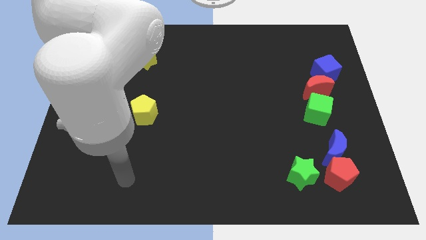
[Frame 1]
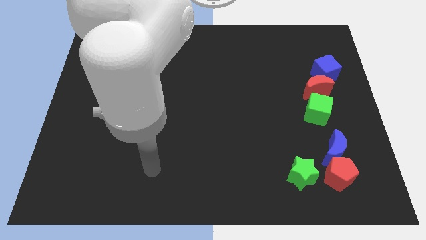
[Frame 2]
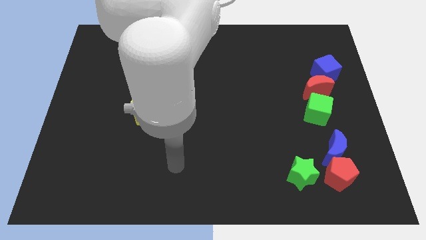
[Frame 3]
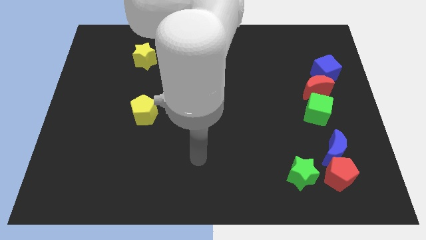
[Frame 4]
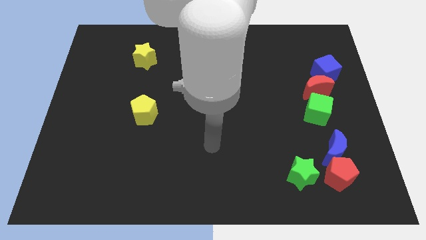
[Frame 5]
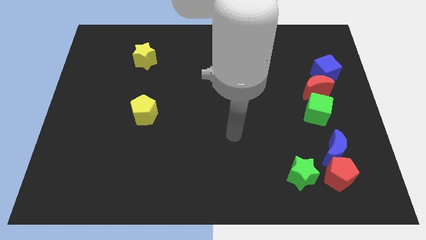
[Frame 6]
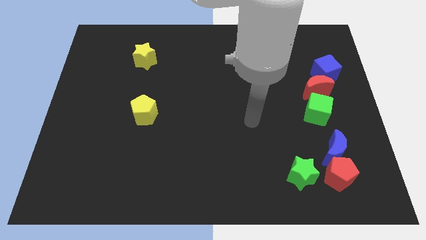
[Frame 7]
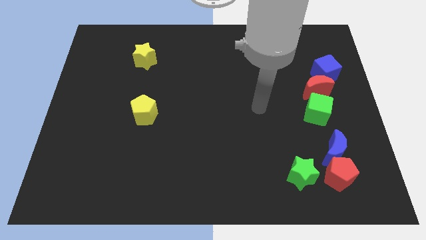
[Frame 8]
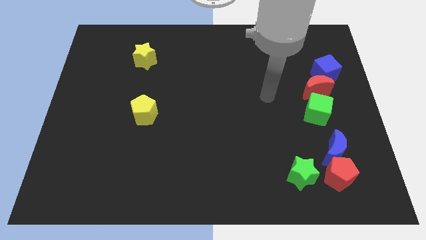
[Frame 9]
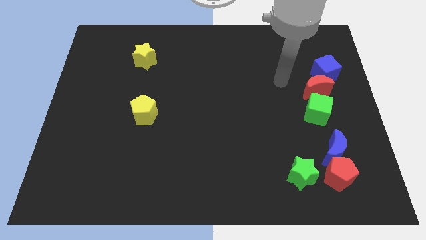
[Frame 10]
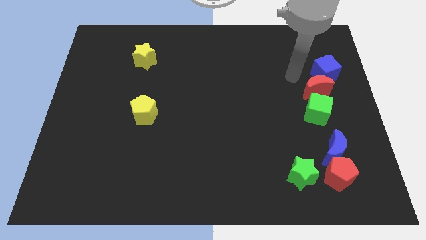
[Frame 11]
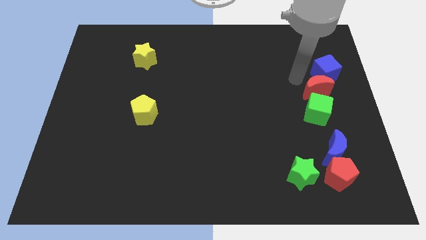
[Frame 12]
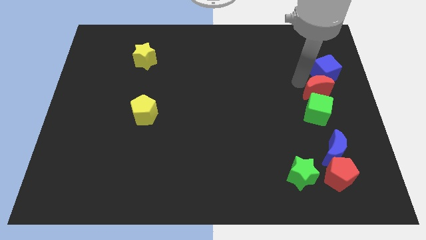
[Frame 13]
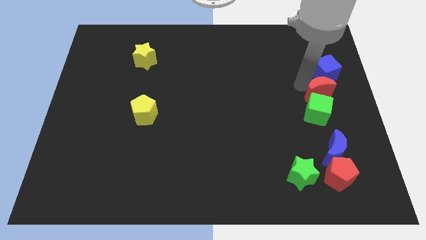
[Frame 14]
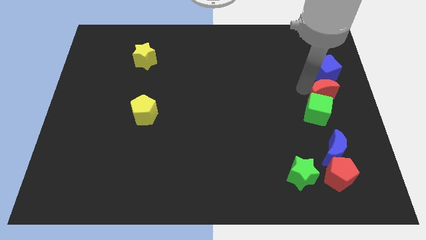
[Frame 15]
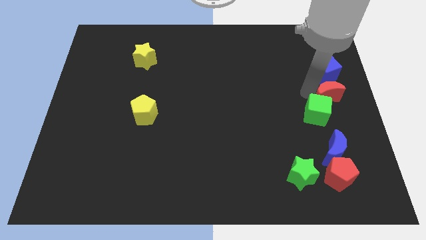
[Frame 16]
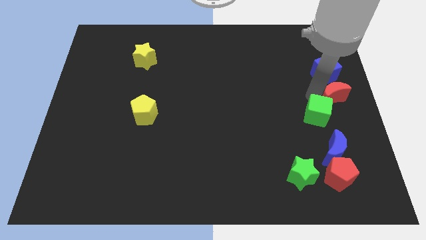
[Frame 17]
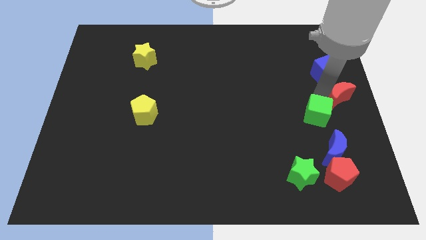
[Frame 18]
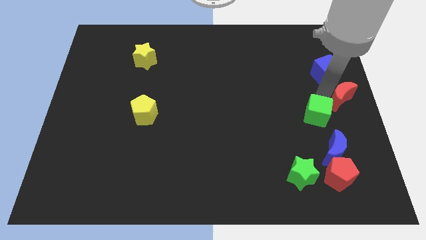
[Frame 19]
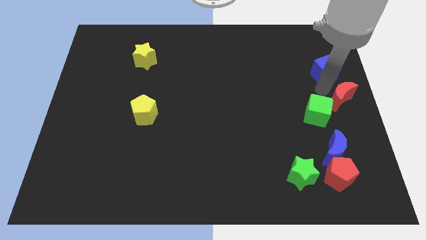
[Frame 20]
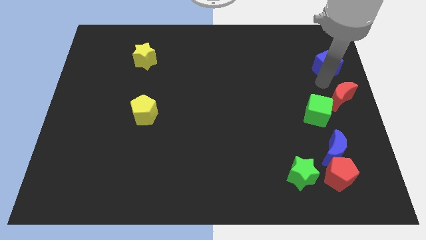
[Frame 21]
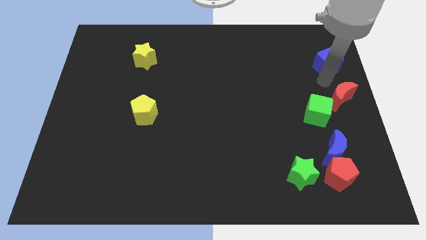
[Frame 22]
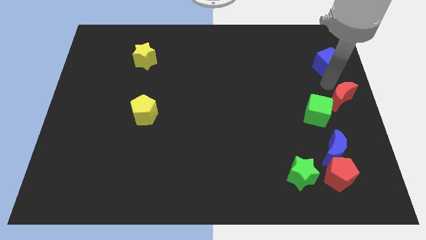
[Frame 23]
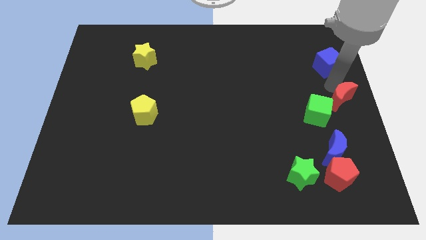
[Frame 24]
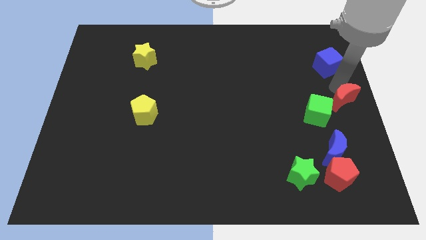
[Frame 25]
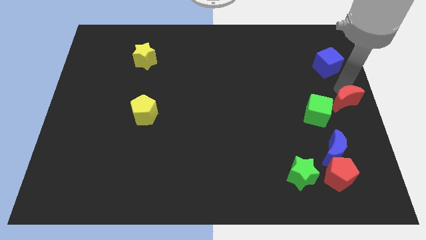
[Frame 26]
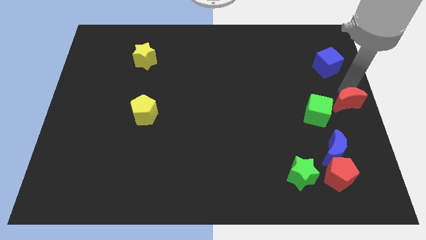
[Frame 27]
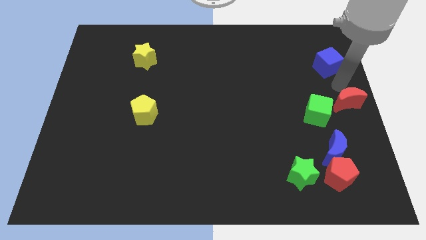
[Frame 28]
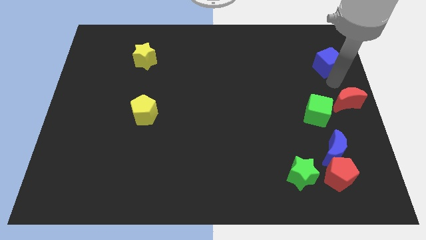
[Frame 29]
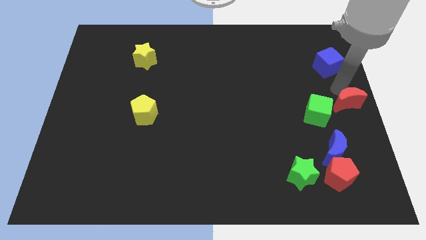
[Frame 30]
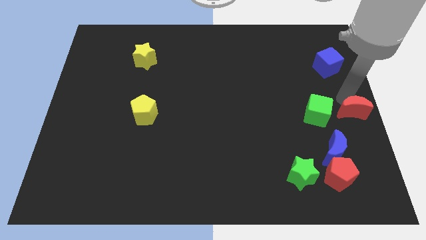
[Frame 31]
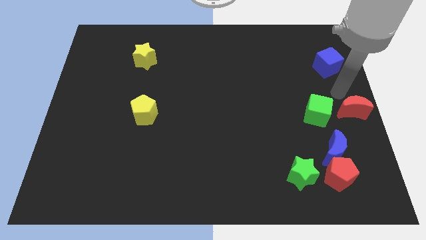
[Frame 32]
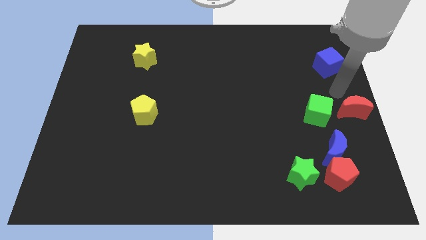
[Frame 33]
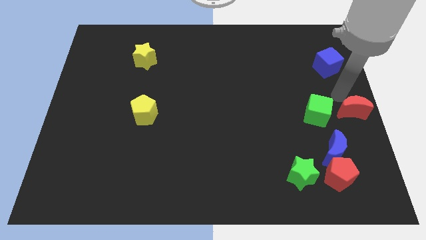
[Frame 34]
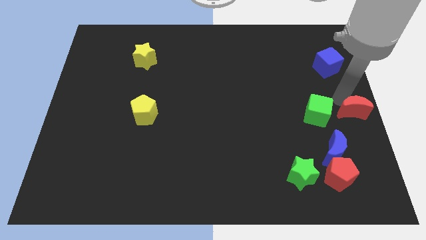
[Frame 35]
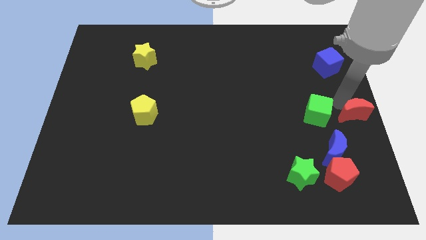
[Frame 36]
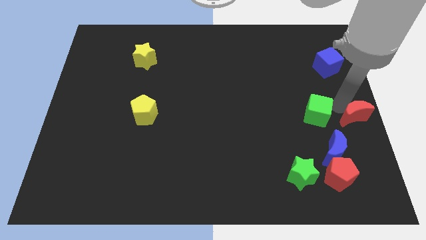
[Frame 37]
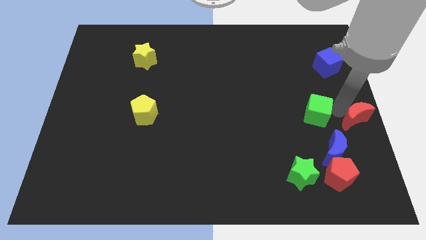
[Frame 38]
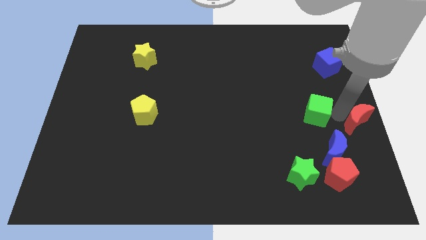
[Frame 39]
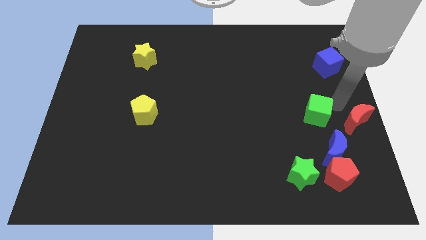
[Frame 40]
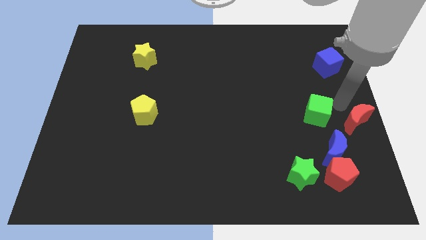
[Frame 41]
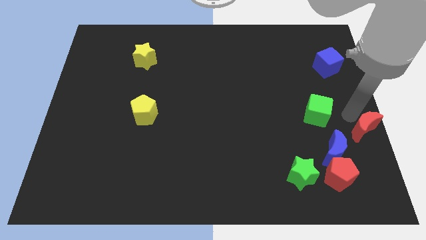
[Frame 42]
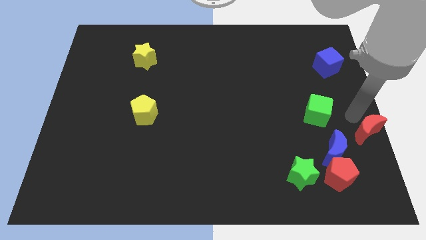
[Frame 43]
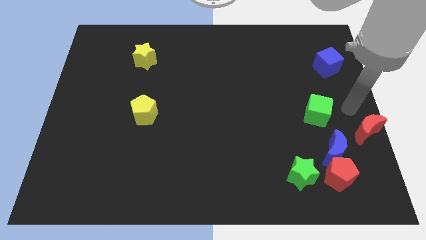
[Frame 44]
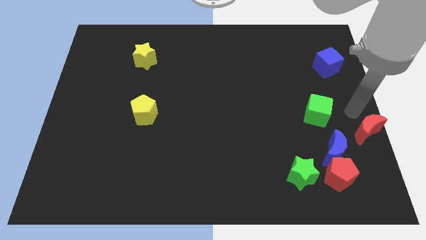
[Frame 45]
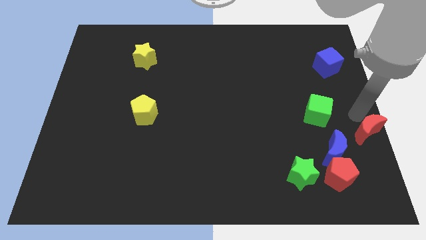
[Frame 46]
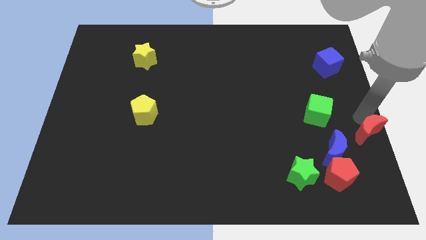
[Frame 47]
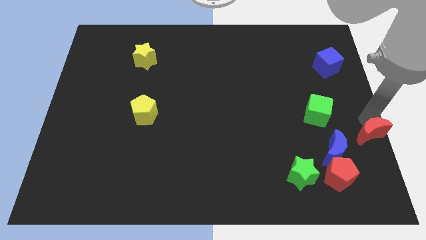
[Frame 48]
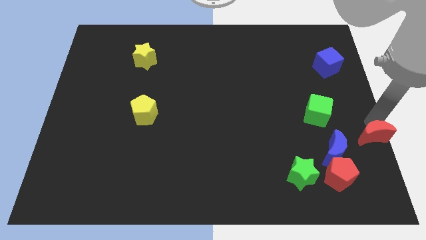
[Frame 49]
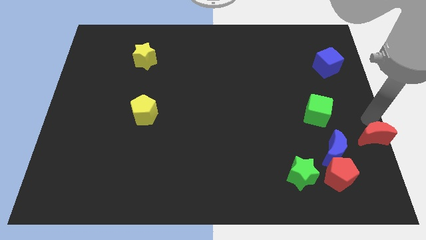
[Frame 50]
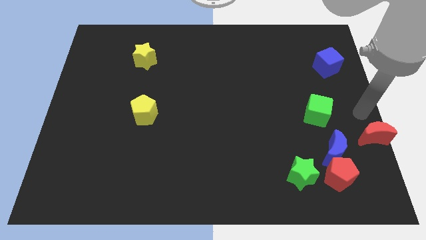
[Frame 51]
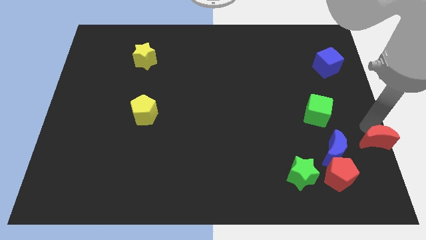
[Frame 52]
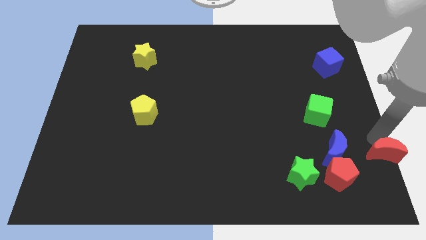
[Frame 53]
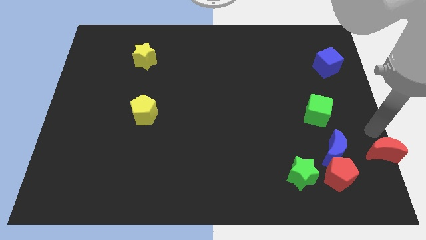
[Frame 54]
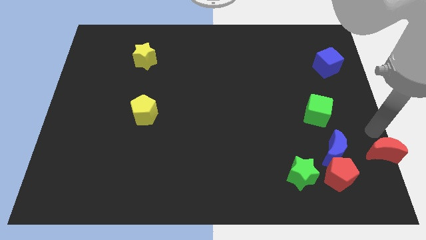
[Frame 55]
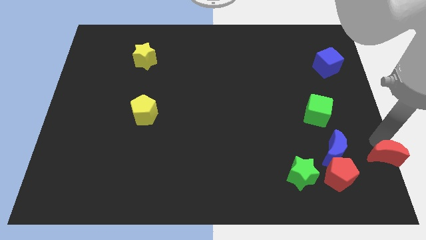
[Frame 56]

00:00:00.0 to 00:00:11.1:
move the red moon to the bottom right of the board

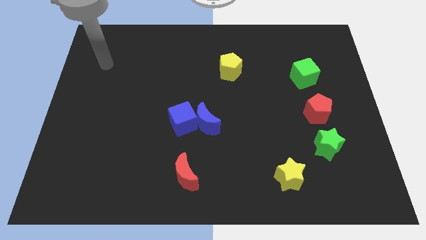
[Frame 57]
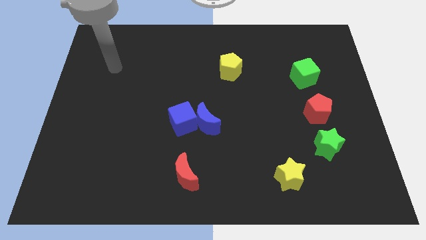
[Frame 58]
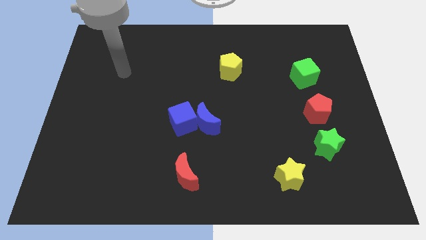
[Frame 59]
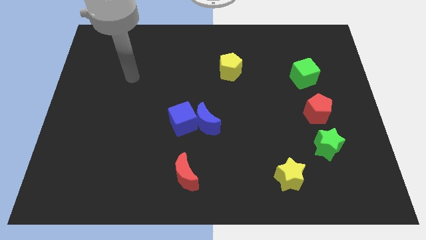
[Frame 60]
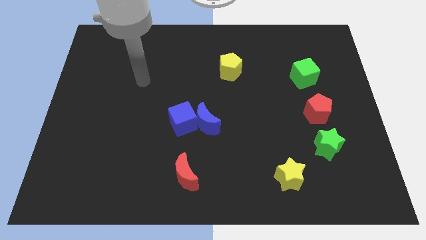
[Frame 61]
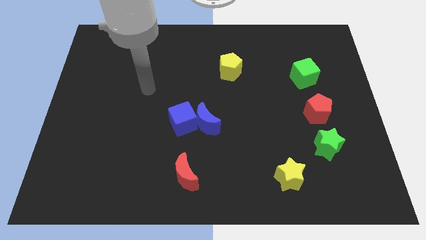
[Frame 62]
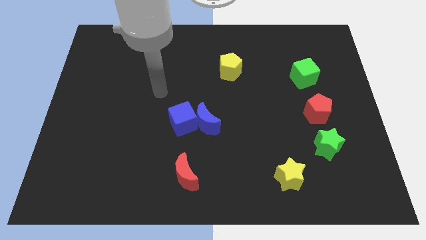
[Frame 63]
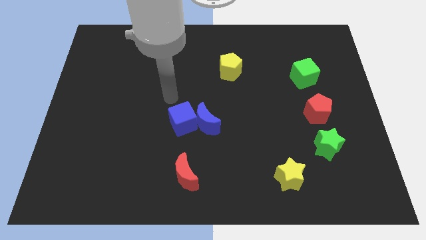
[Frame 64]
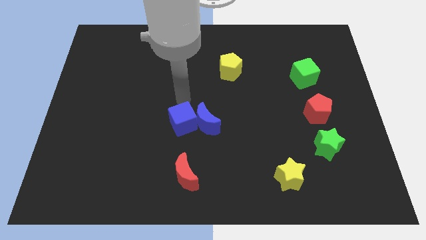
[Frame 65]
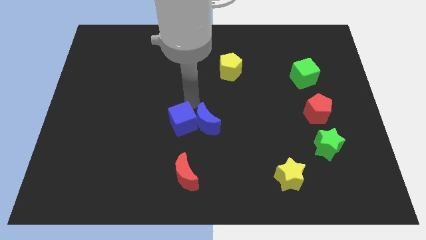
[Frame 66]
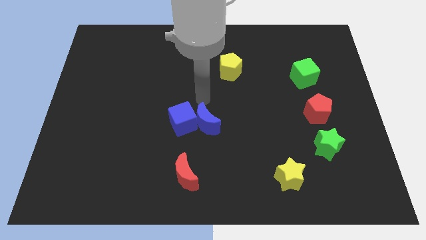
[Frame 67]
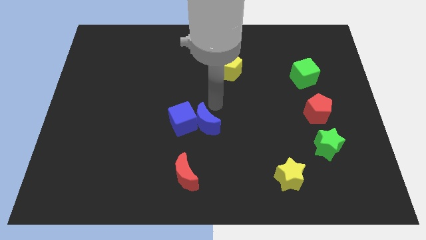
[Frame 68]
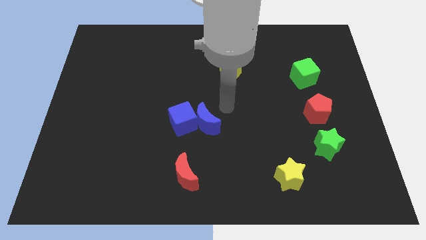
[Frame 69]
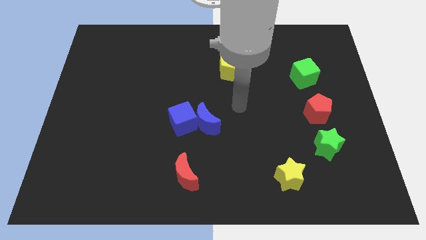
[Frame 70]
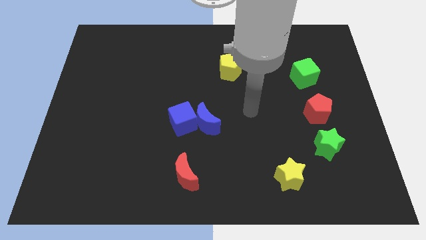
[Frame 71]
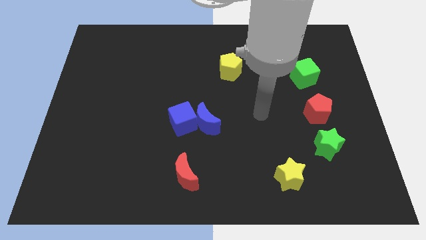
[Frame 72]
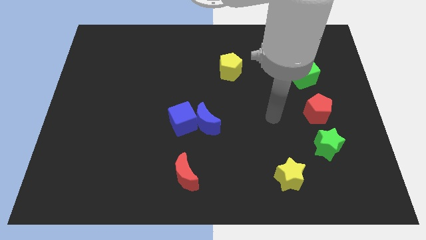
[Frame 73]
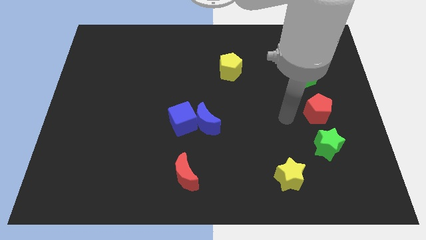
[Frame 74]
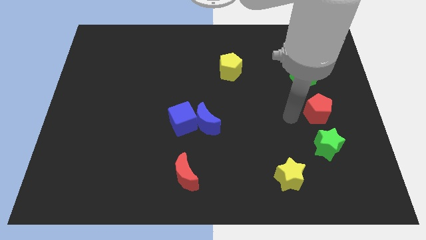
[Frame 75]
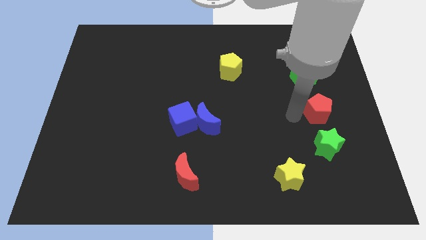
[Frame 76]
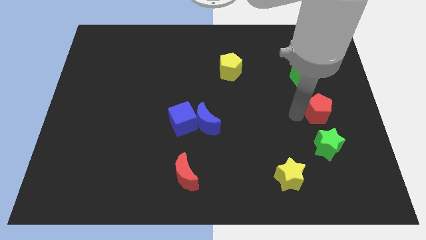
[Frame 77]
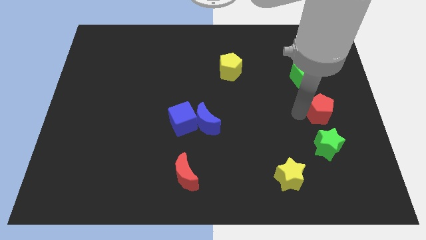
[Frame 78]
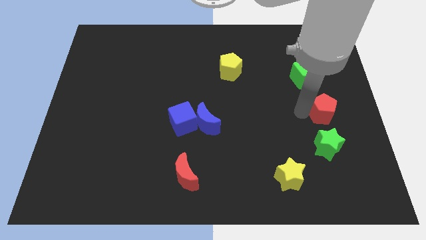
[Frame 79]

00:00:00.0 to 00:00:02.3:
put the red pentagon to the right side
